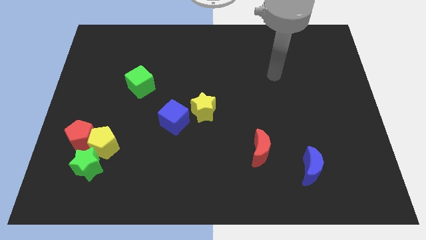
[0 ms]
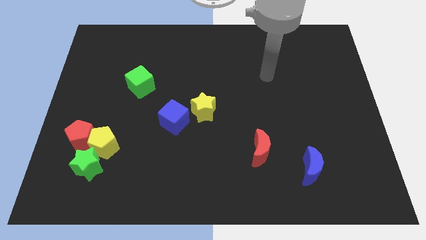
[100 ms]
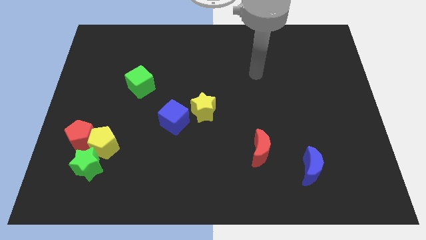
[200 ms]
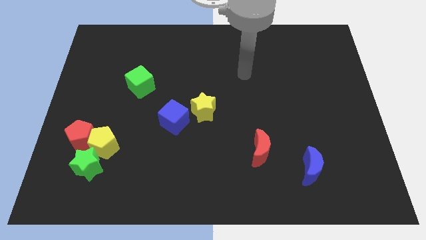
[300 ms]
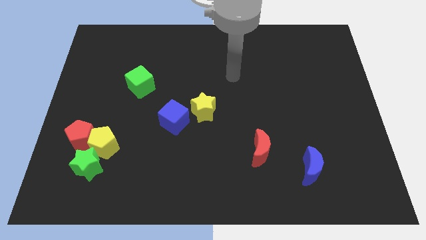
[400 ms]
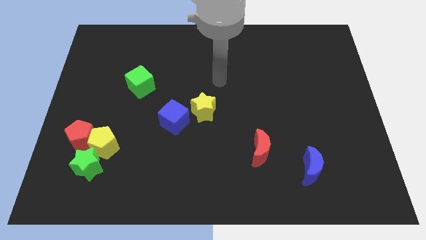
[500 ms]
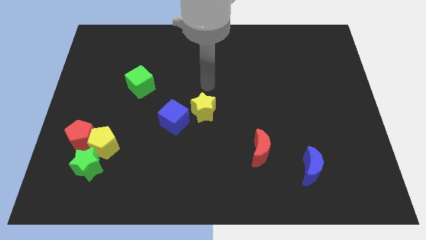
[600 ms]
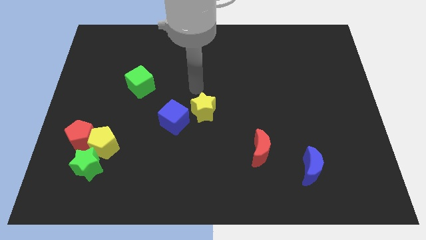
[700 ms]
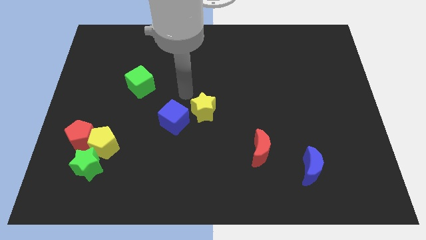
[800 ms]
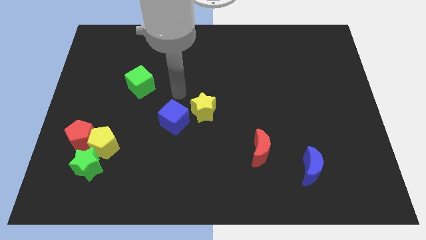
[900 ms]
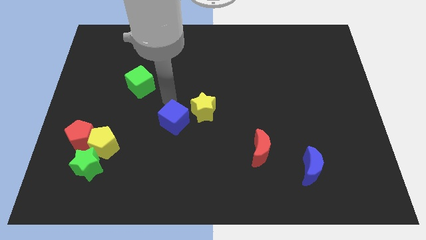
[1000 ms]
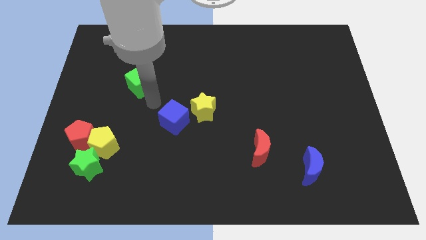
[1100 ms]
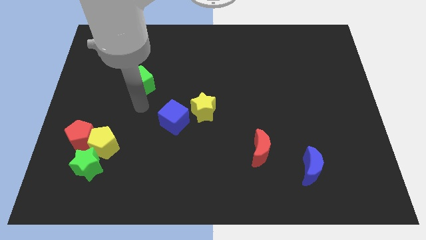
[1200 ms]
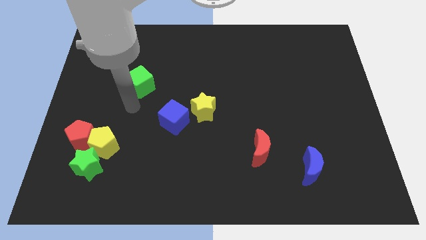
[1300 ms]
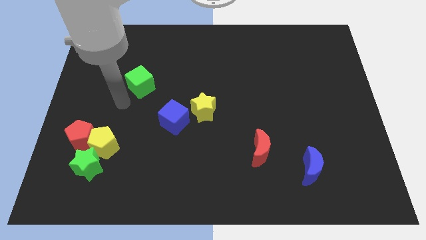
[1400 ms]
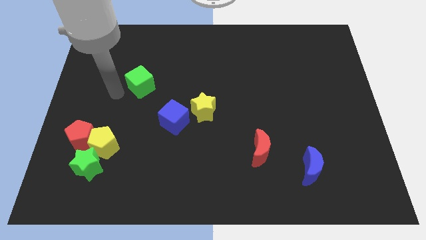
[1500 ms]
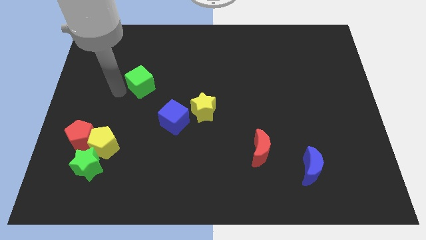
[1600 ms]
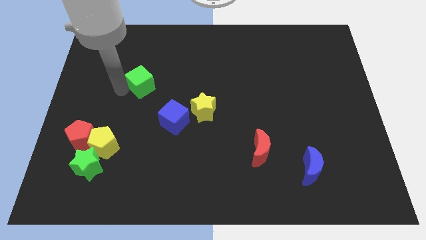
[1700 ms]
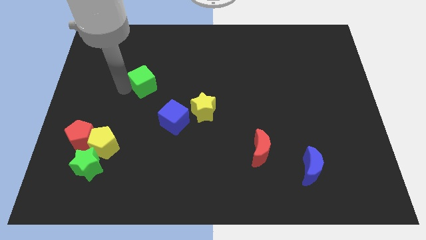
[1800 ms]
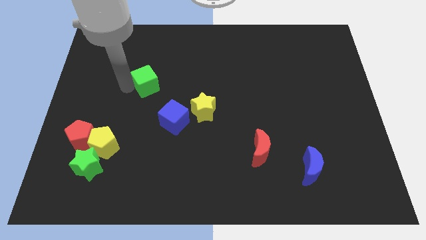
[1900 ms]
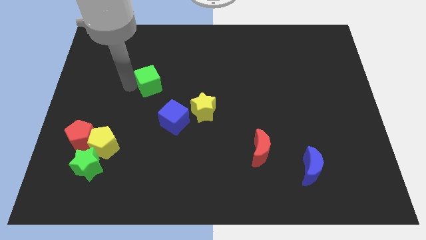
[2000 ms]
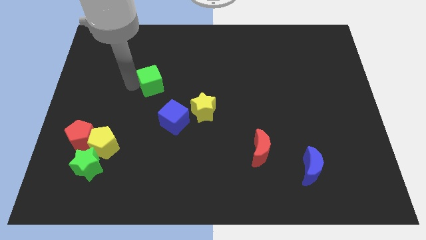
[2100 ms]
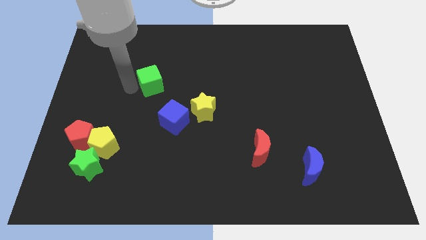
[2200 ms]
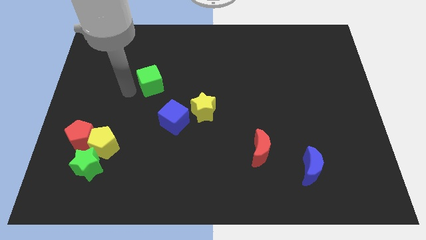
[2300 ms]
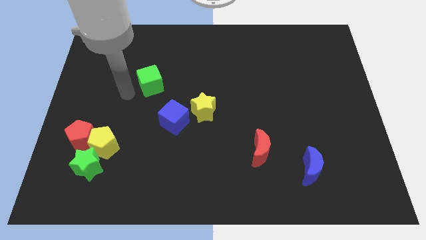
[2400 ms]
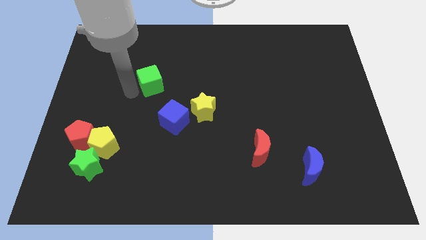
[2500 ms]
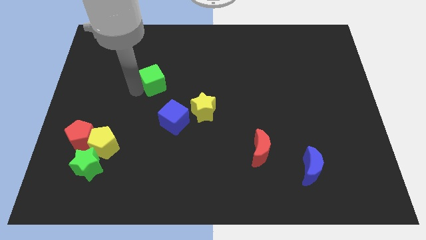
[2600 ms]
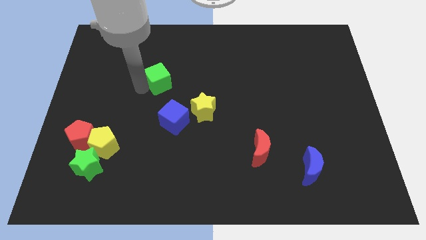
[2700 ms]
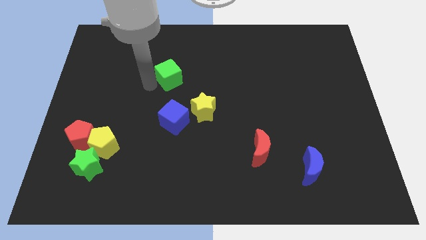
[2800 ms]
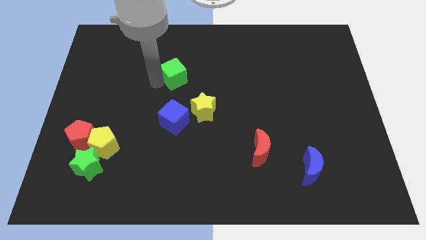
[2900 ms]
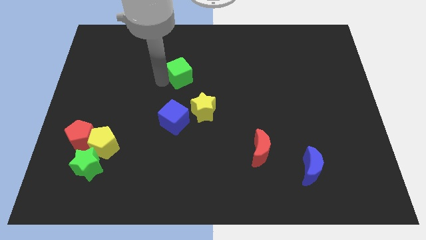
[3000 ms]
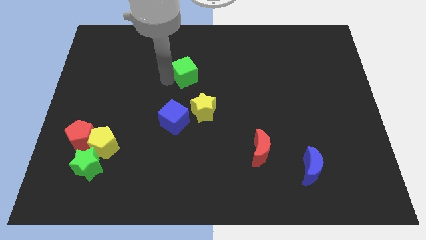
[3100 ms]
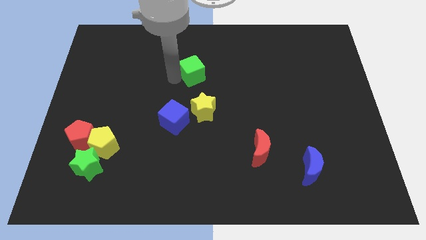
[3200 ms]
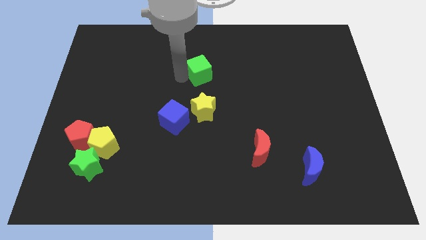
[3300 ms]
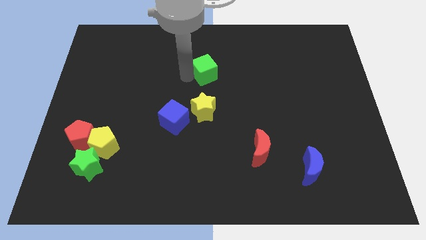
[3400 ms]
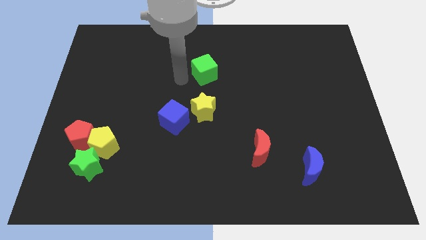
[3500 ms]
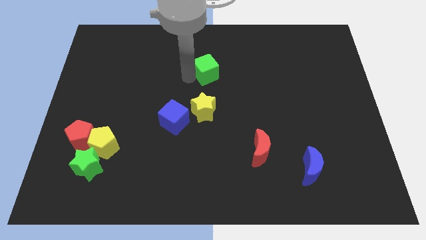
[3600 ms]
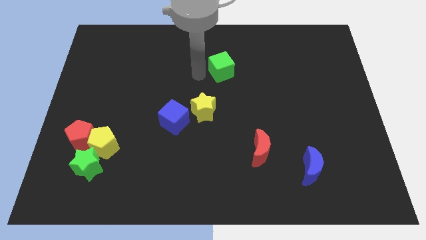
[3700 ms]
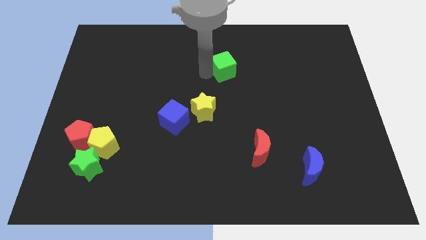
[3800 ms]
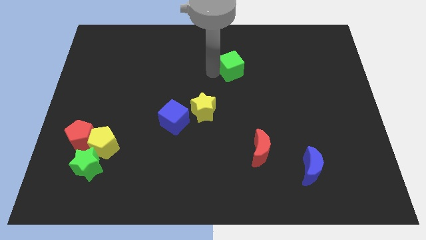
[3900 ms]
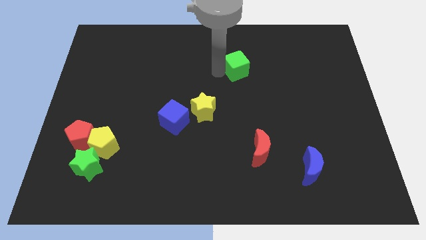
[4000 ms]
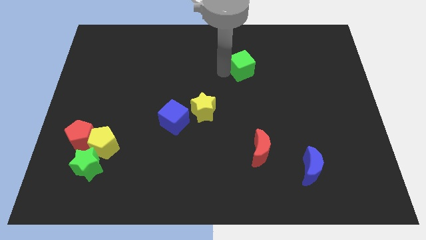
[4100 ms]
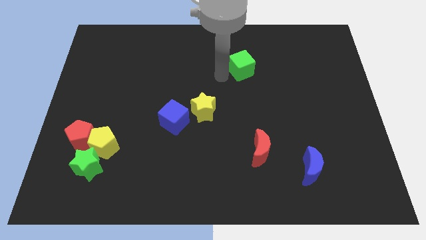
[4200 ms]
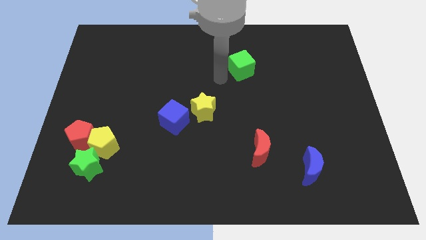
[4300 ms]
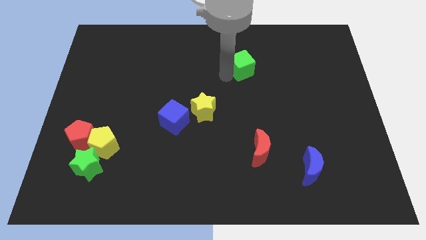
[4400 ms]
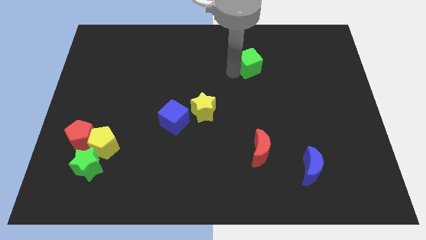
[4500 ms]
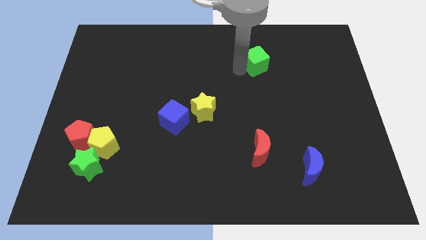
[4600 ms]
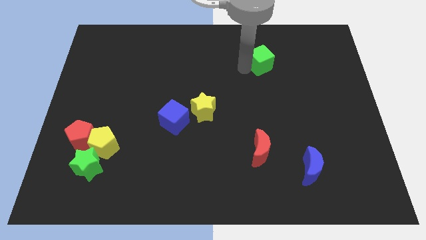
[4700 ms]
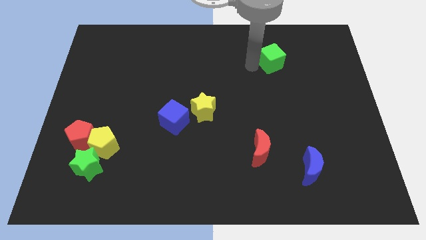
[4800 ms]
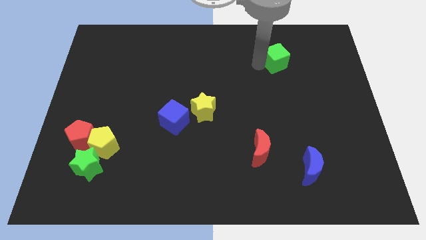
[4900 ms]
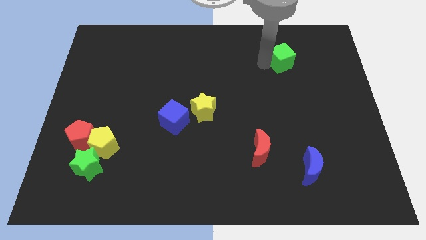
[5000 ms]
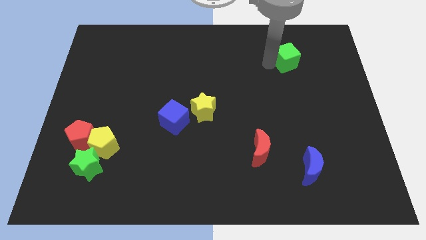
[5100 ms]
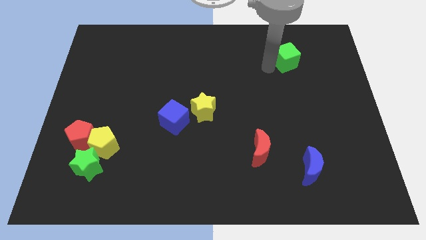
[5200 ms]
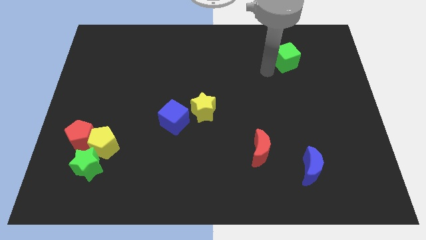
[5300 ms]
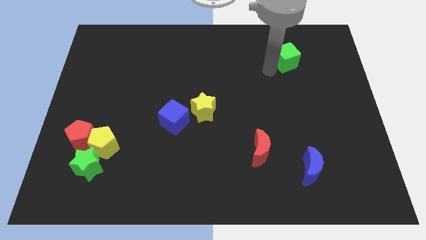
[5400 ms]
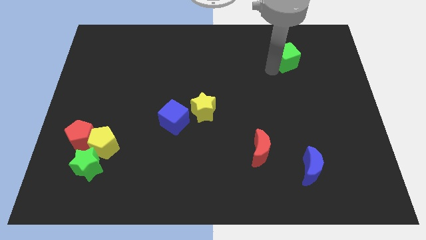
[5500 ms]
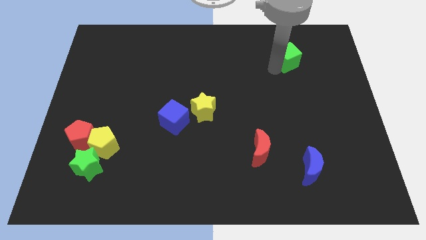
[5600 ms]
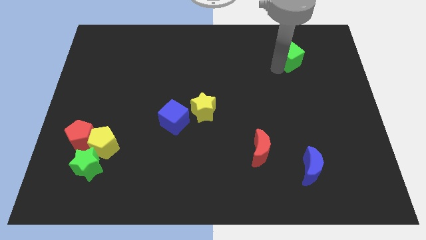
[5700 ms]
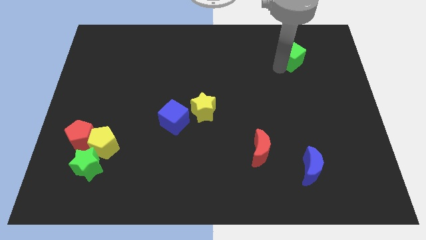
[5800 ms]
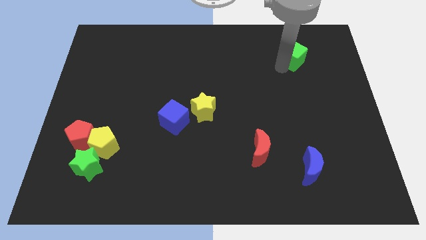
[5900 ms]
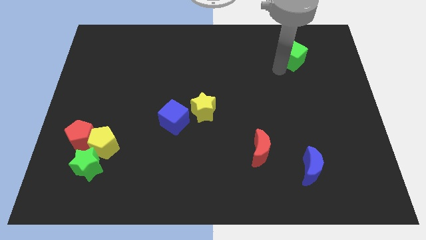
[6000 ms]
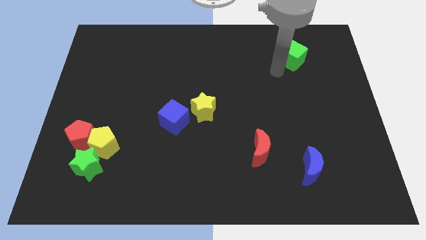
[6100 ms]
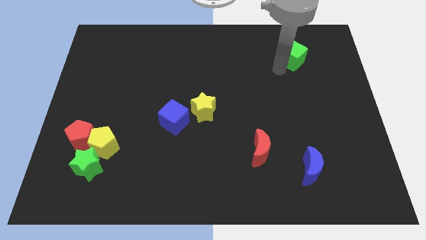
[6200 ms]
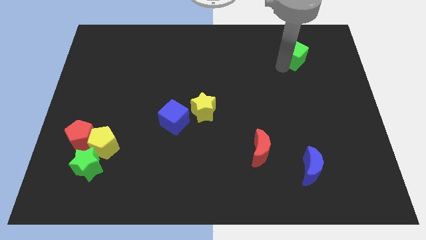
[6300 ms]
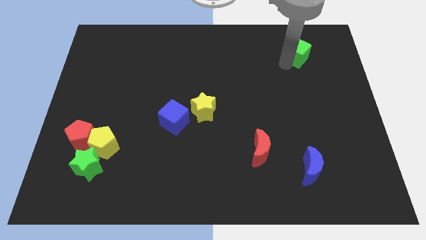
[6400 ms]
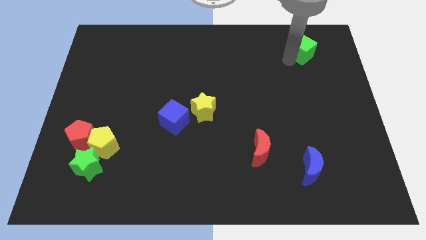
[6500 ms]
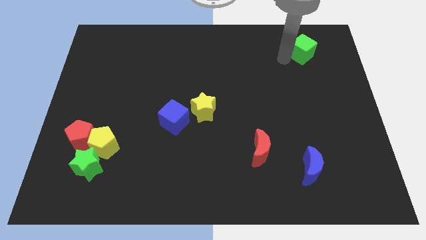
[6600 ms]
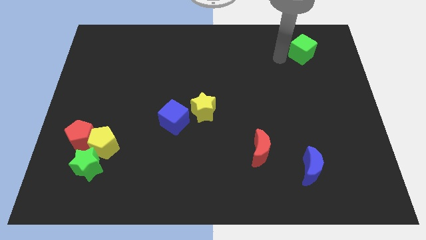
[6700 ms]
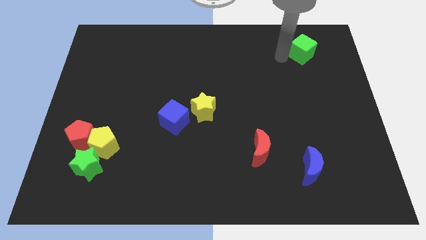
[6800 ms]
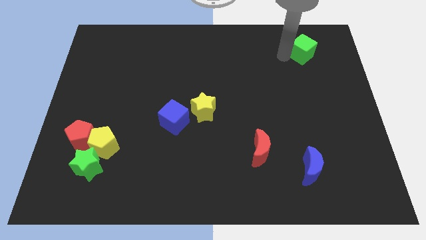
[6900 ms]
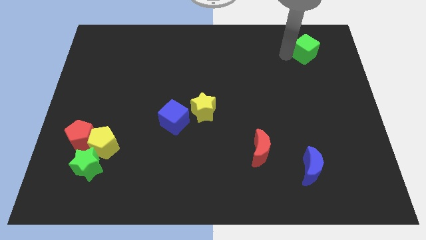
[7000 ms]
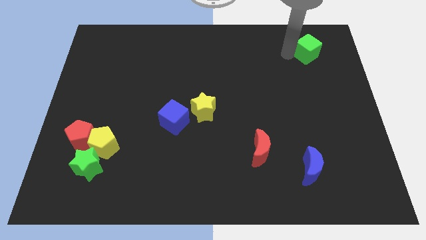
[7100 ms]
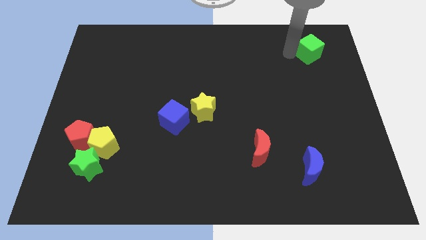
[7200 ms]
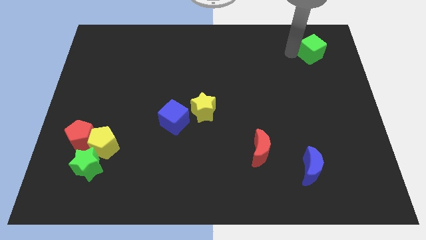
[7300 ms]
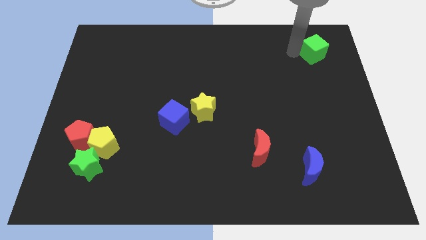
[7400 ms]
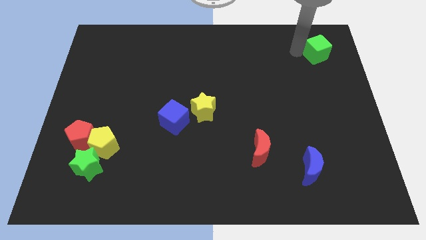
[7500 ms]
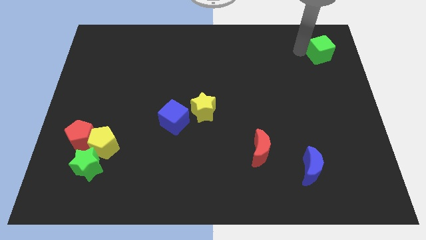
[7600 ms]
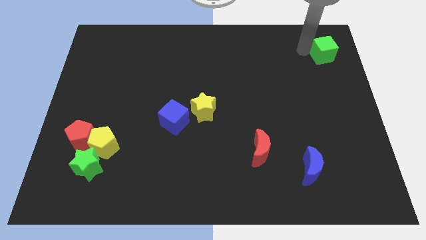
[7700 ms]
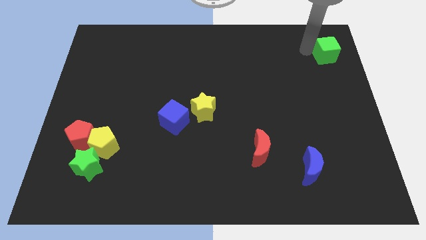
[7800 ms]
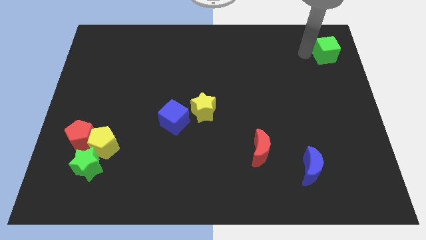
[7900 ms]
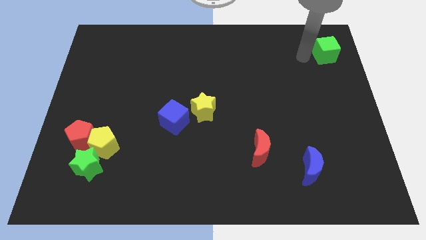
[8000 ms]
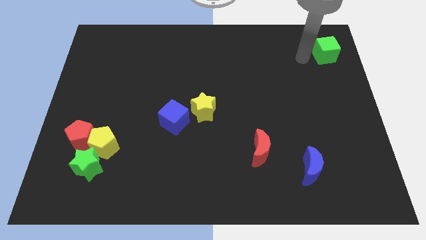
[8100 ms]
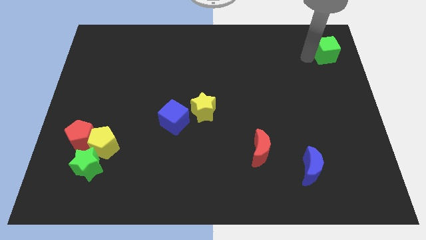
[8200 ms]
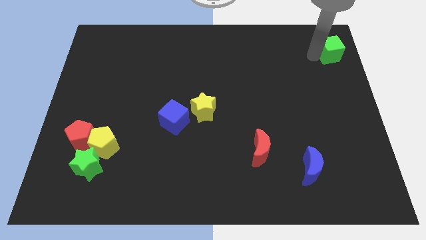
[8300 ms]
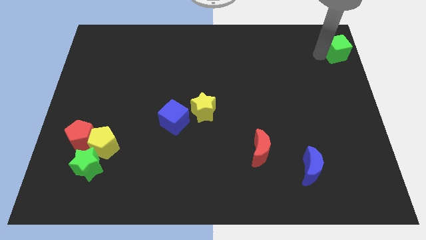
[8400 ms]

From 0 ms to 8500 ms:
put the green cube to the top right of the board
